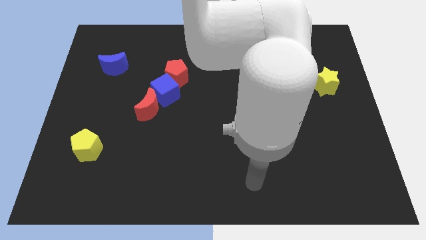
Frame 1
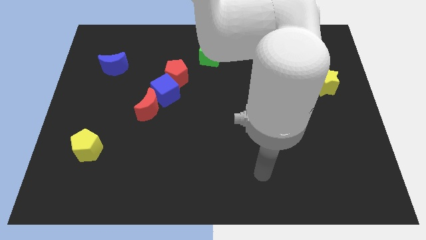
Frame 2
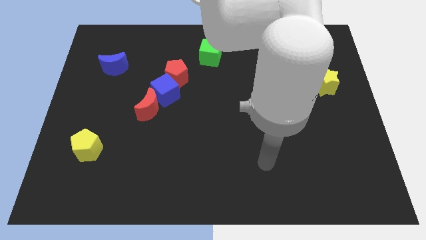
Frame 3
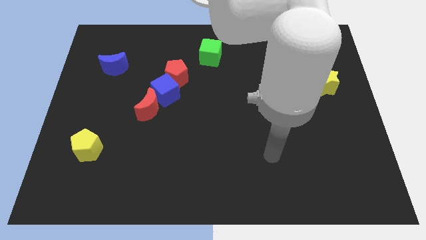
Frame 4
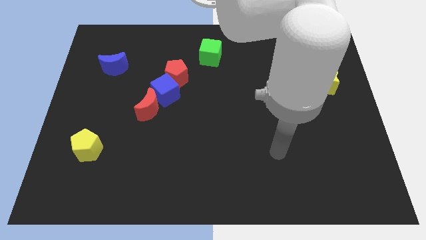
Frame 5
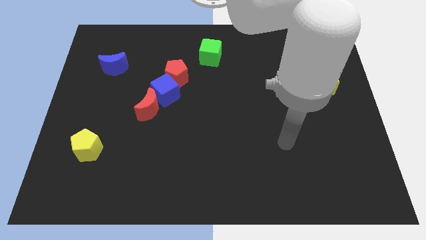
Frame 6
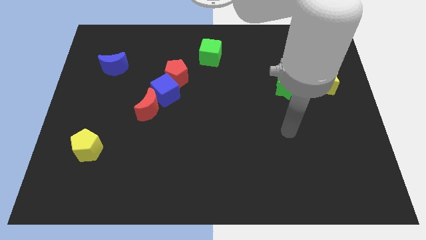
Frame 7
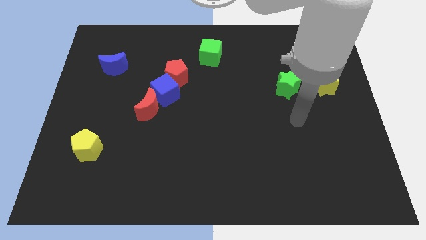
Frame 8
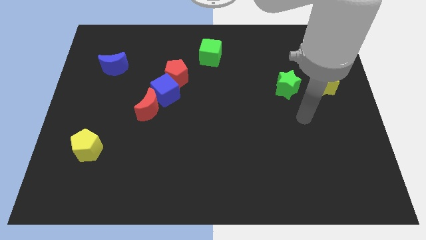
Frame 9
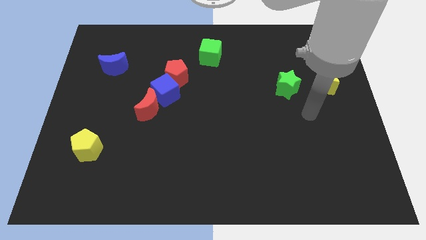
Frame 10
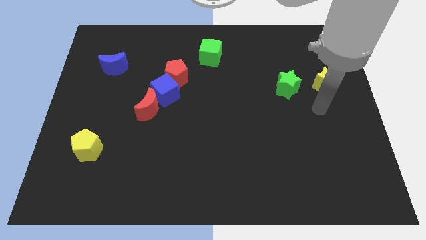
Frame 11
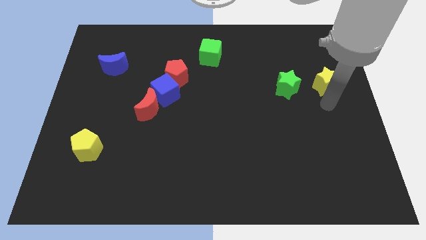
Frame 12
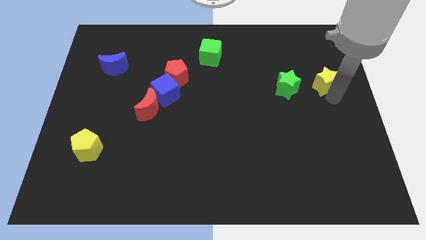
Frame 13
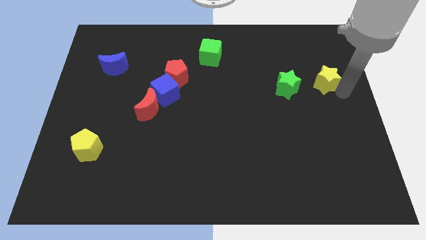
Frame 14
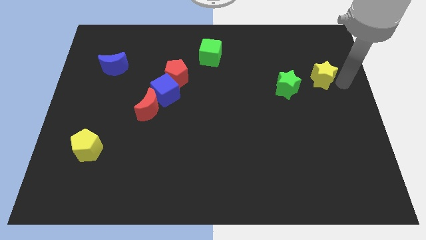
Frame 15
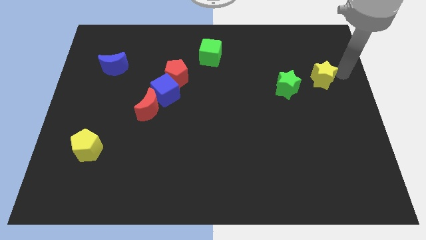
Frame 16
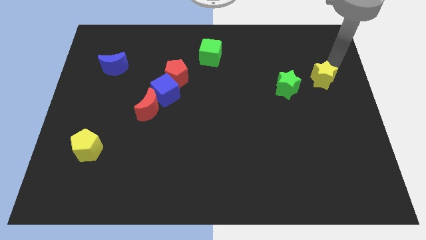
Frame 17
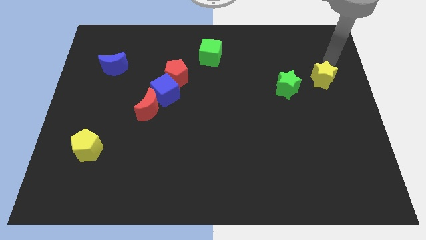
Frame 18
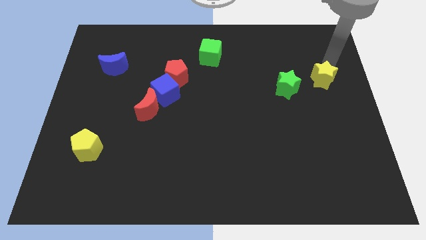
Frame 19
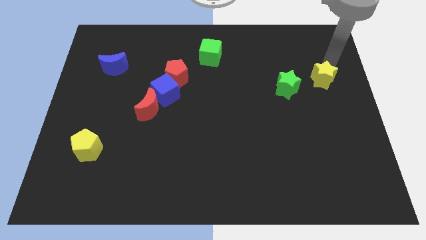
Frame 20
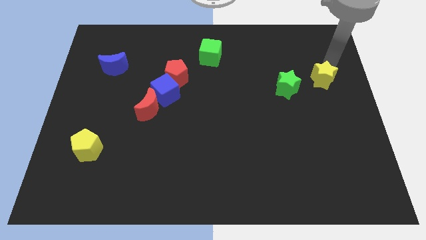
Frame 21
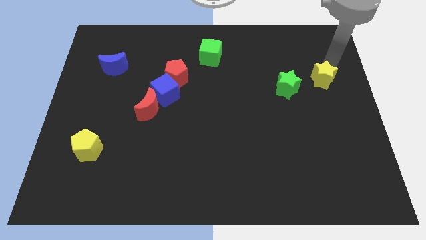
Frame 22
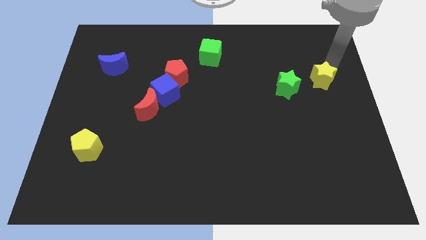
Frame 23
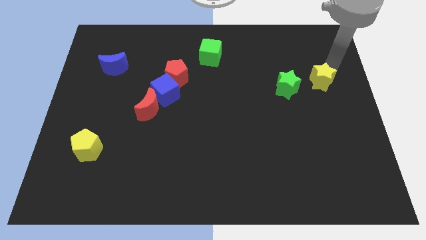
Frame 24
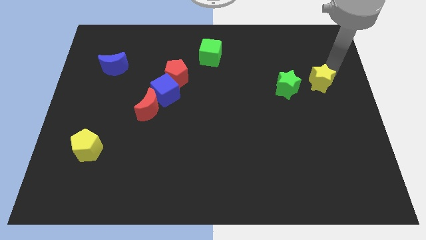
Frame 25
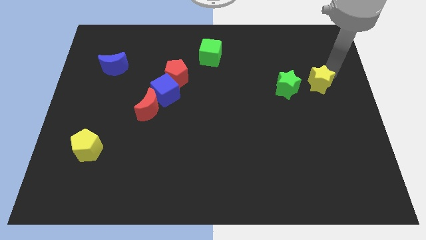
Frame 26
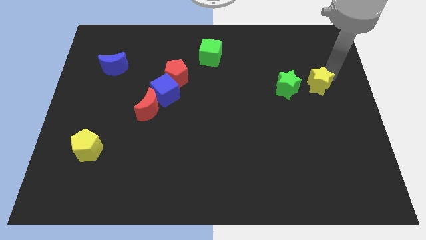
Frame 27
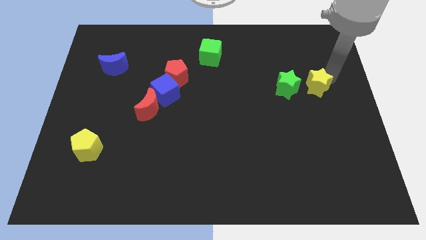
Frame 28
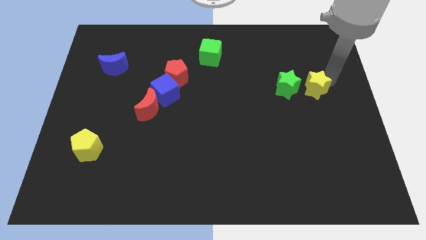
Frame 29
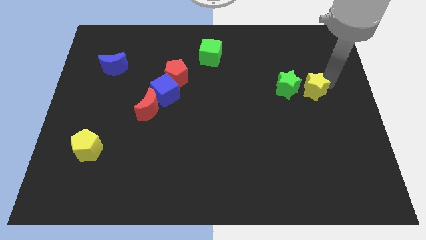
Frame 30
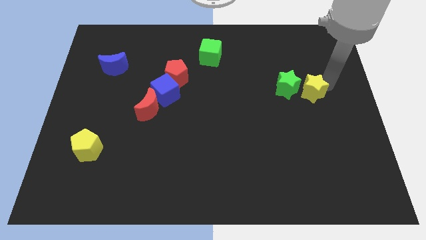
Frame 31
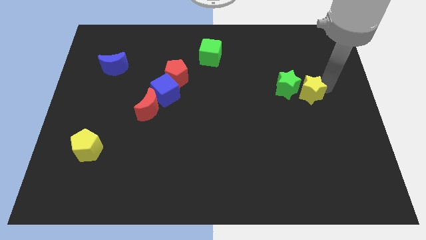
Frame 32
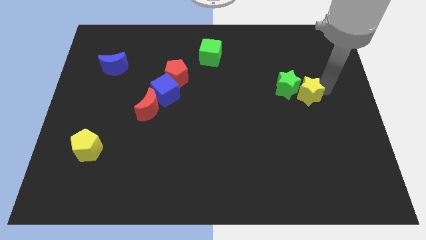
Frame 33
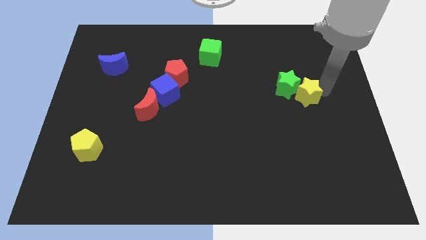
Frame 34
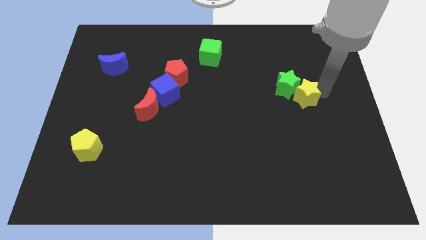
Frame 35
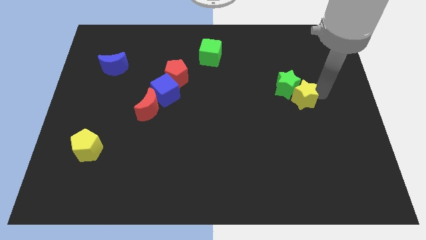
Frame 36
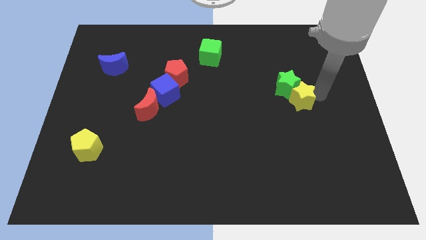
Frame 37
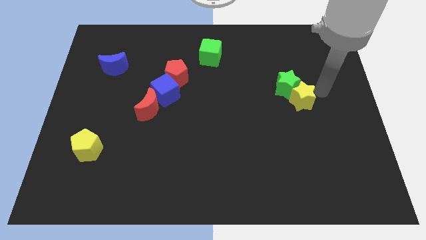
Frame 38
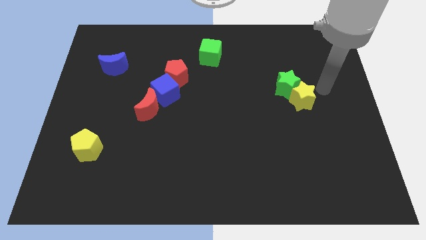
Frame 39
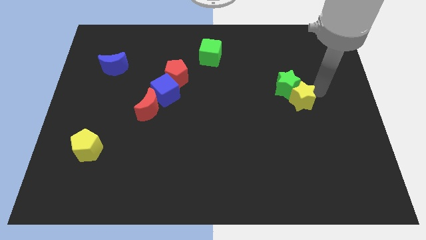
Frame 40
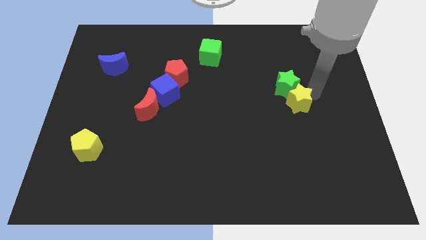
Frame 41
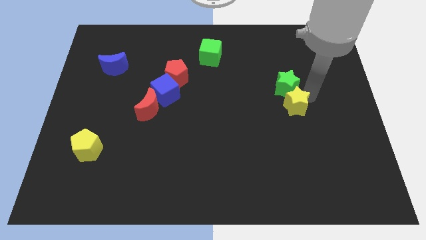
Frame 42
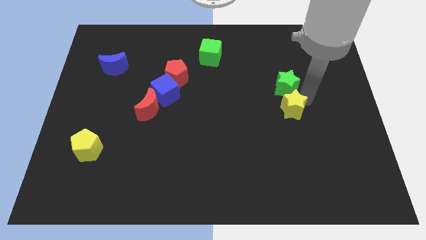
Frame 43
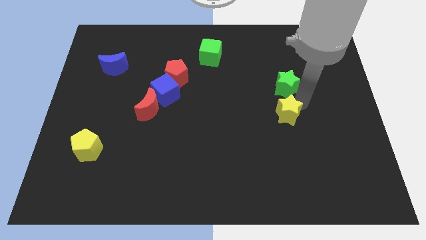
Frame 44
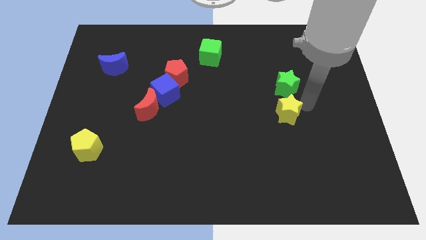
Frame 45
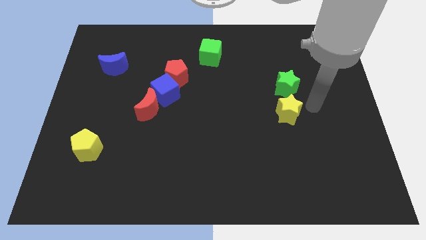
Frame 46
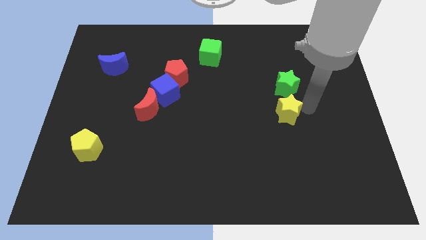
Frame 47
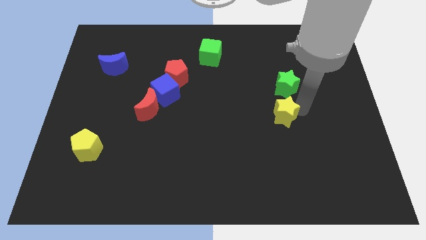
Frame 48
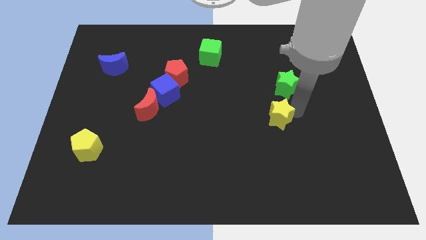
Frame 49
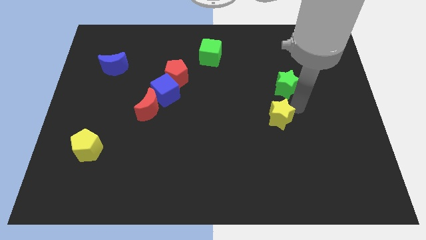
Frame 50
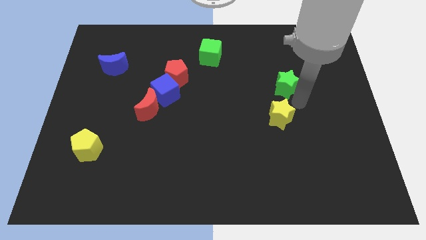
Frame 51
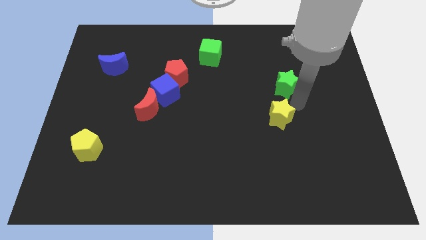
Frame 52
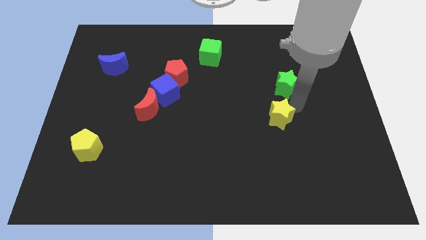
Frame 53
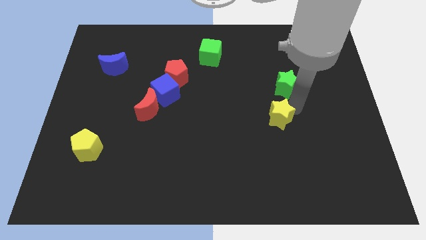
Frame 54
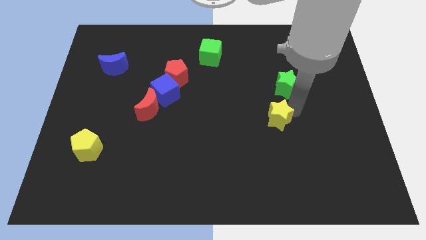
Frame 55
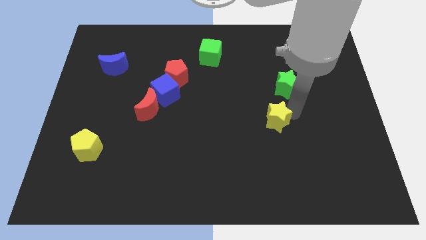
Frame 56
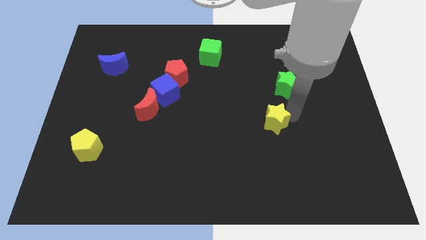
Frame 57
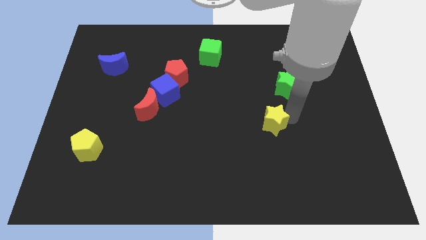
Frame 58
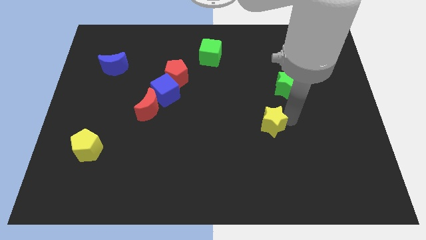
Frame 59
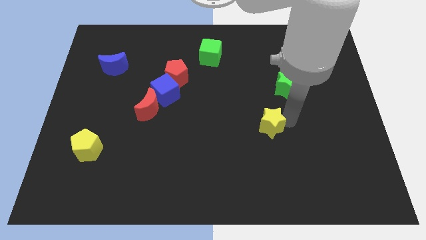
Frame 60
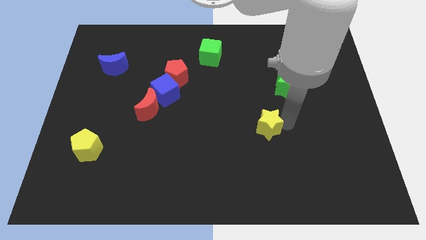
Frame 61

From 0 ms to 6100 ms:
slide the yellow star down and left diagonally

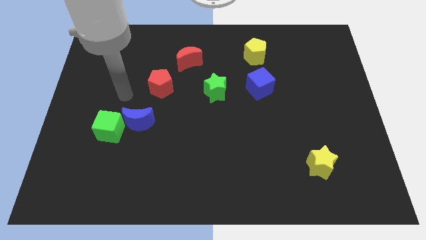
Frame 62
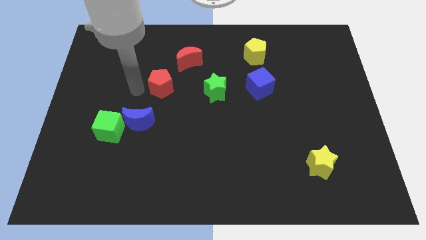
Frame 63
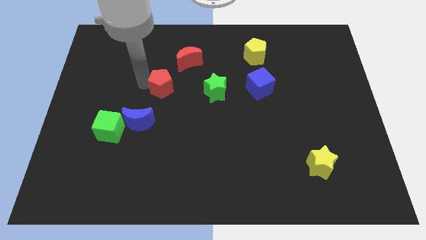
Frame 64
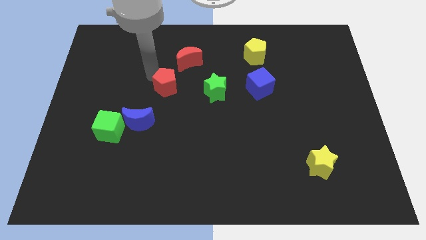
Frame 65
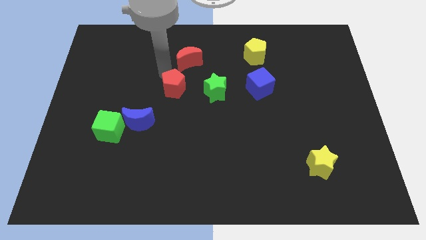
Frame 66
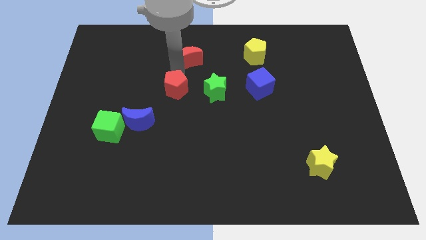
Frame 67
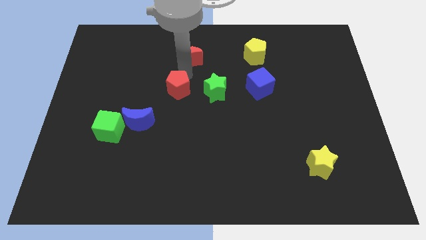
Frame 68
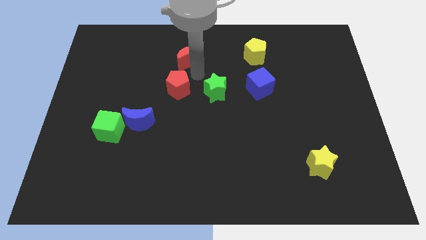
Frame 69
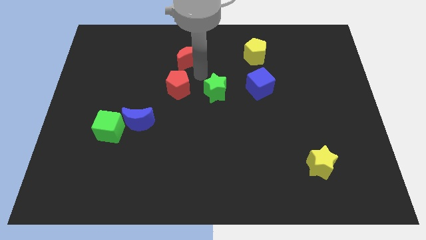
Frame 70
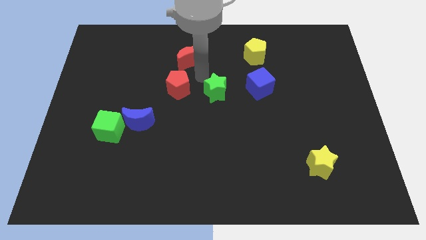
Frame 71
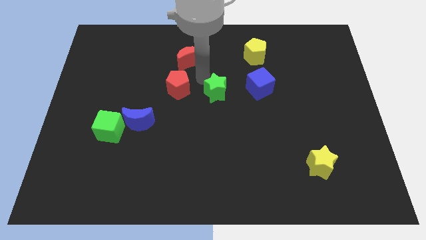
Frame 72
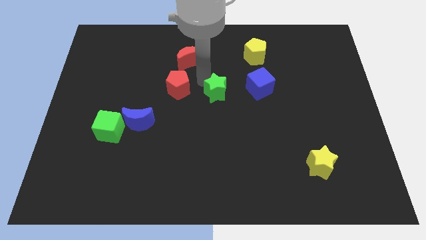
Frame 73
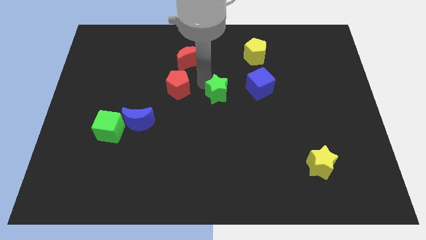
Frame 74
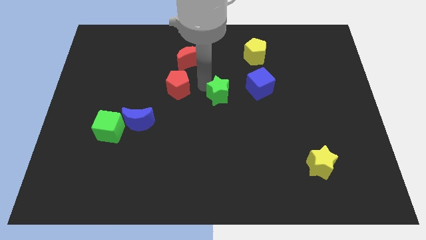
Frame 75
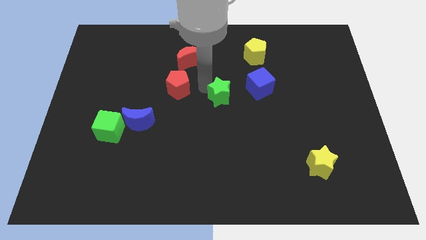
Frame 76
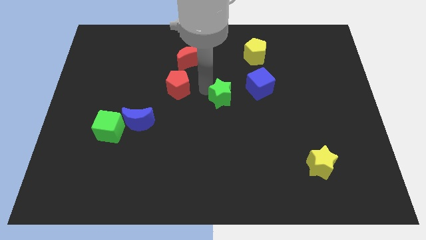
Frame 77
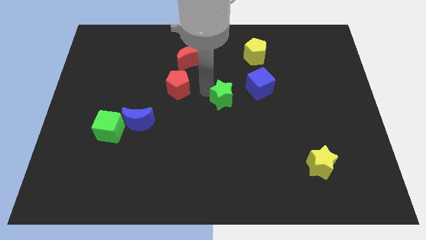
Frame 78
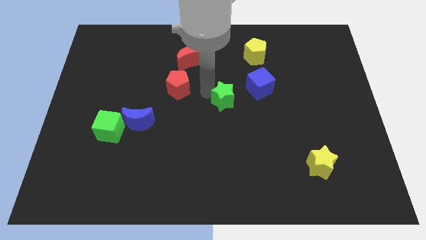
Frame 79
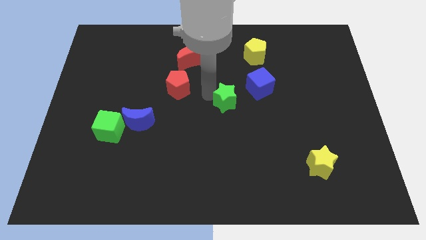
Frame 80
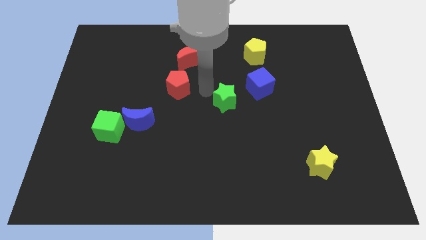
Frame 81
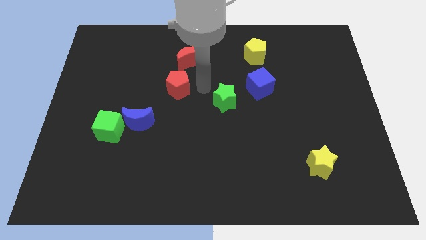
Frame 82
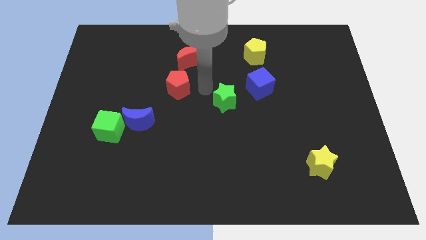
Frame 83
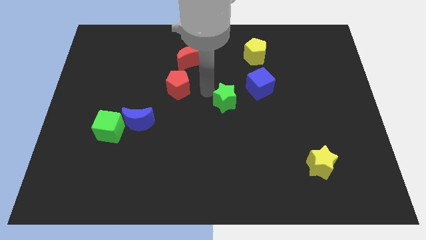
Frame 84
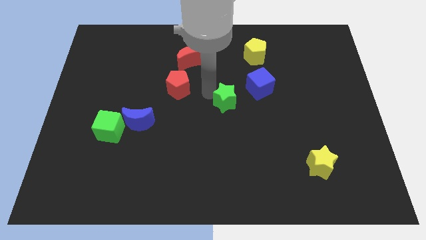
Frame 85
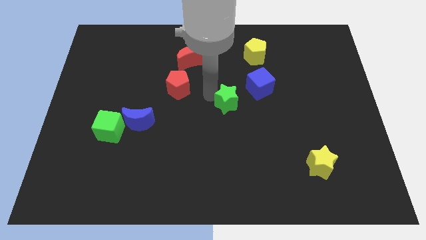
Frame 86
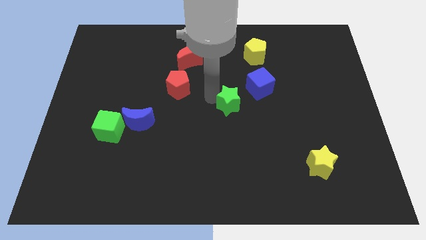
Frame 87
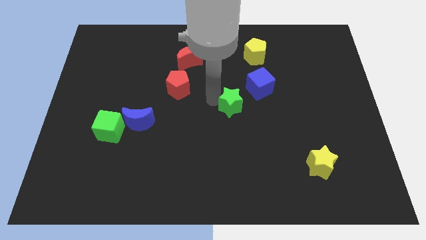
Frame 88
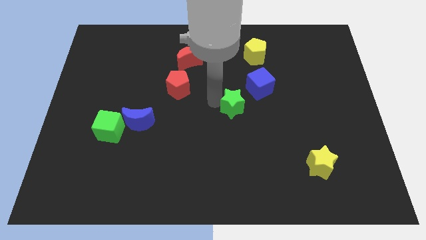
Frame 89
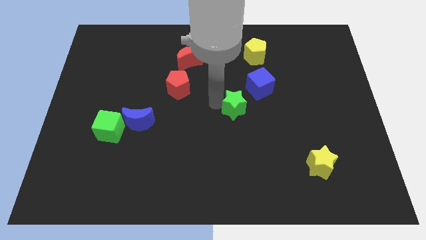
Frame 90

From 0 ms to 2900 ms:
push the green star down and right a little bit
